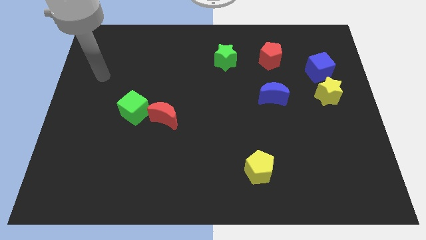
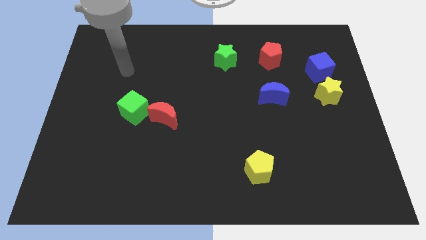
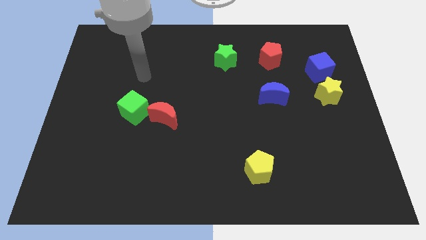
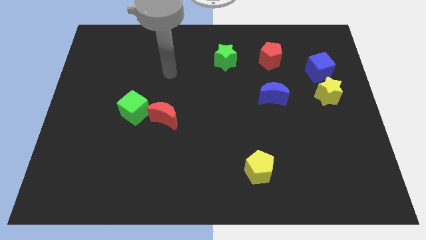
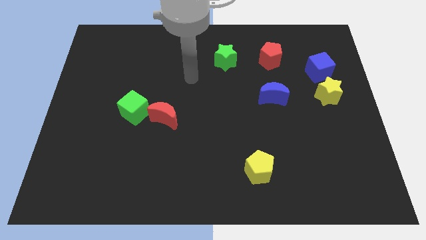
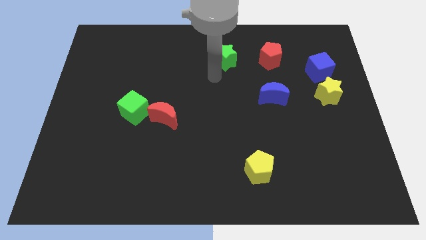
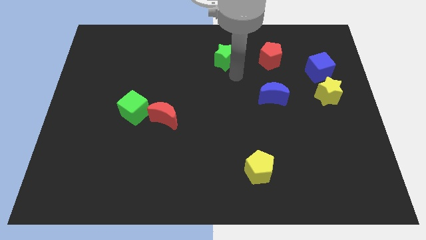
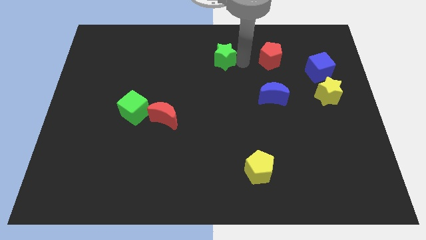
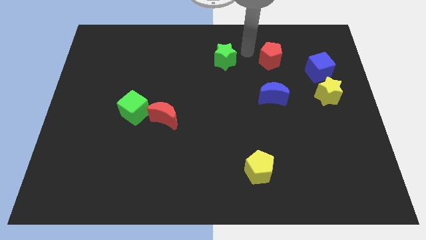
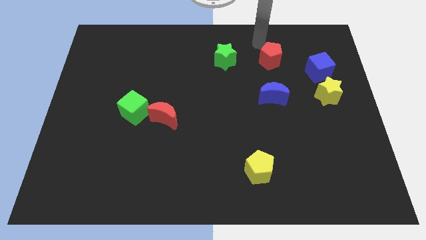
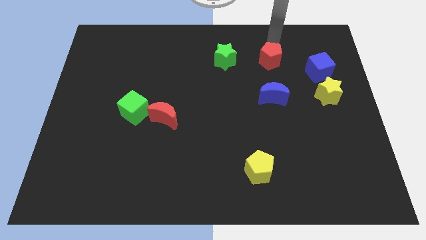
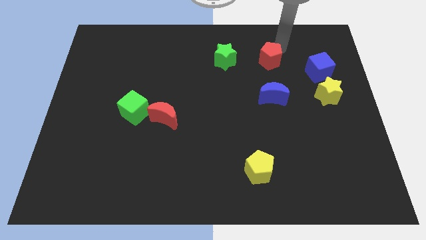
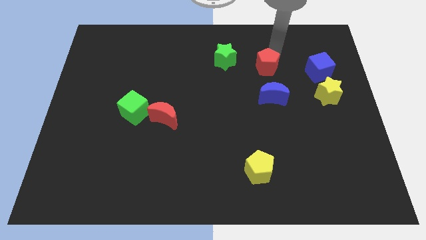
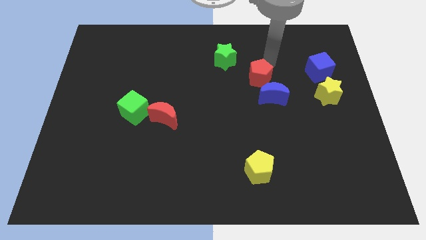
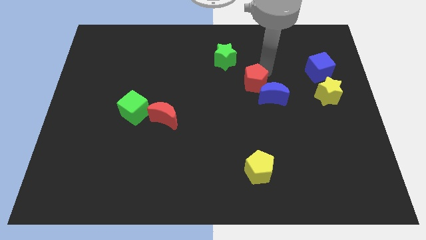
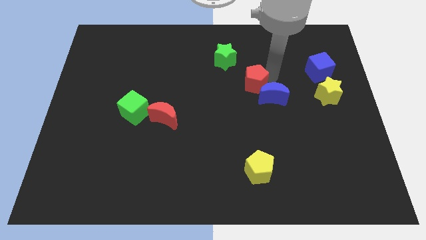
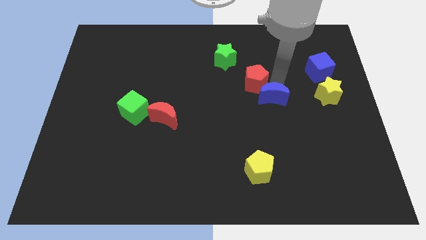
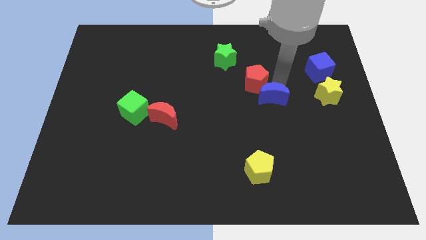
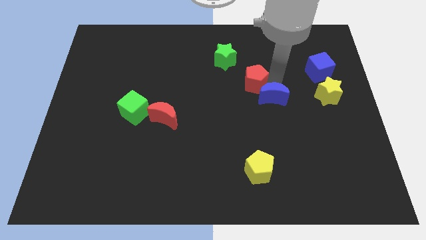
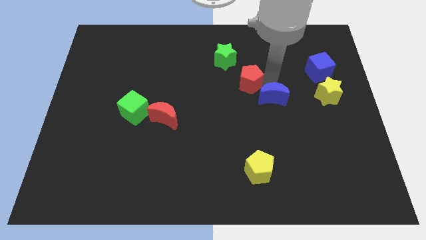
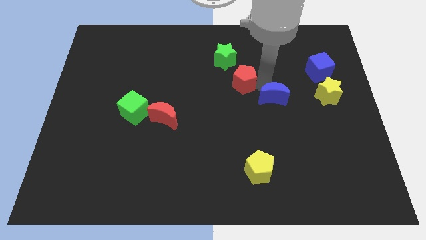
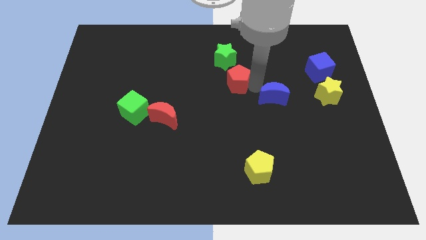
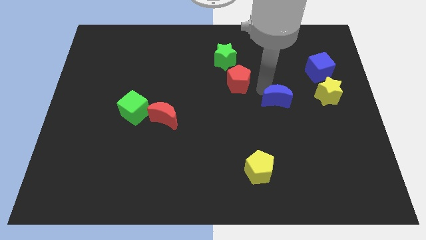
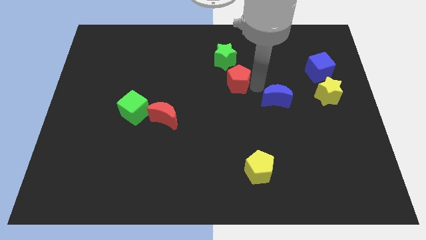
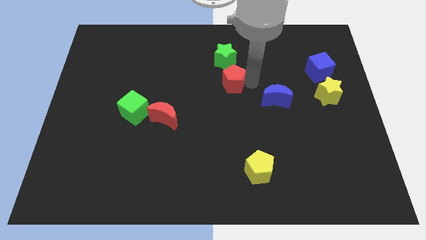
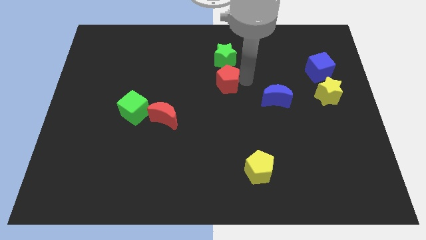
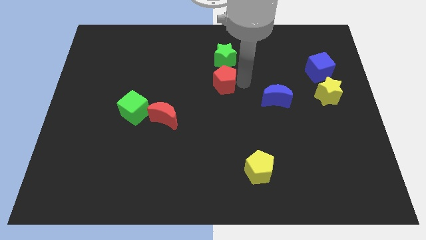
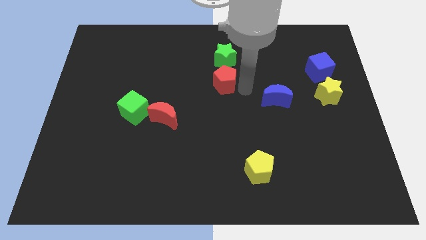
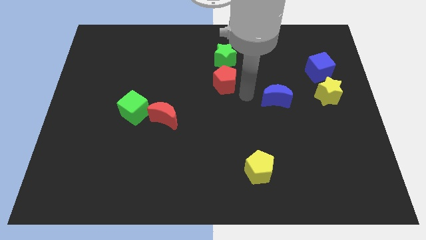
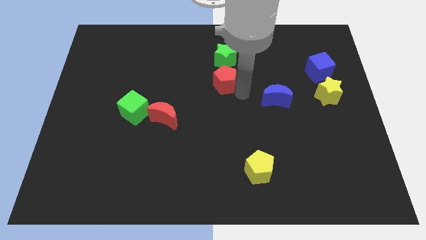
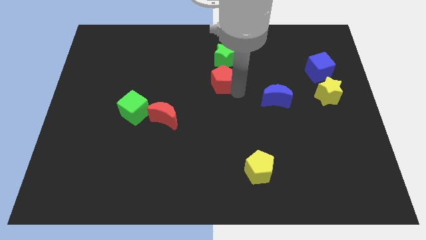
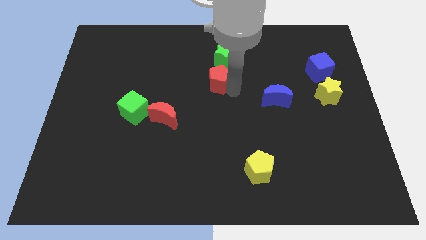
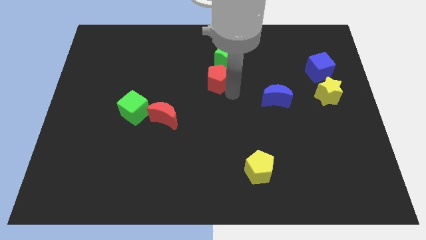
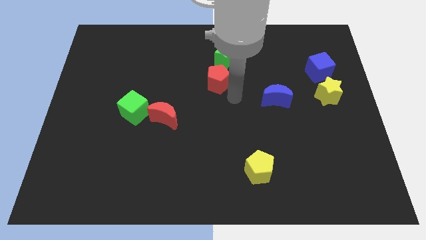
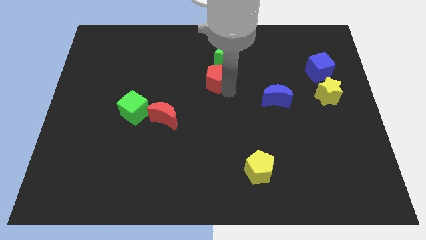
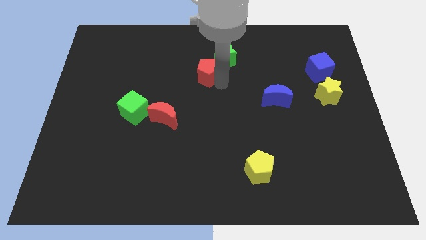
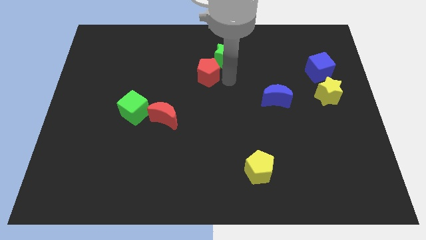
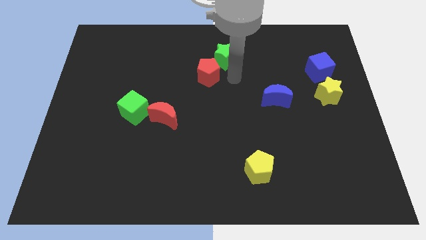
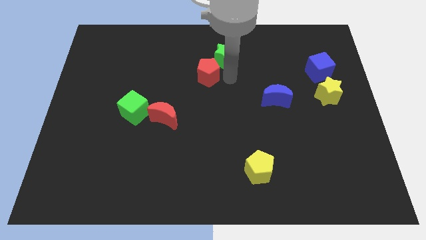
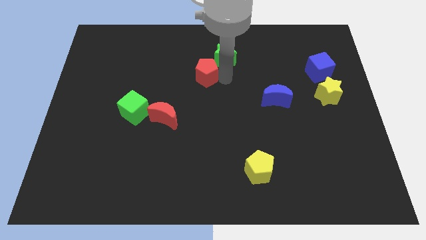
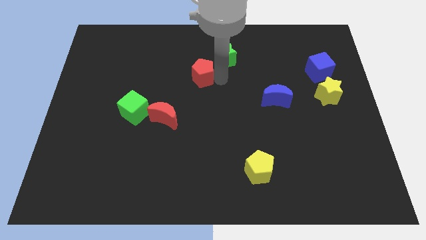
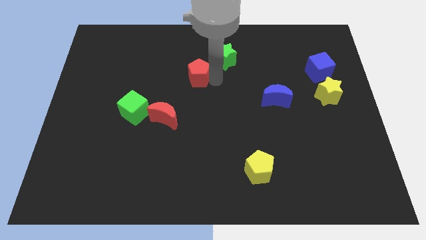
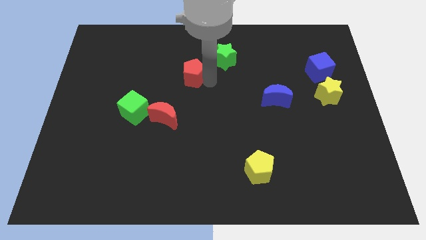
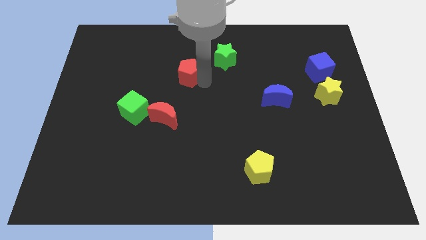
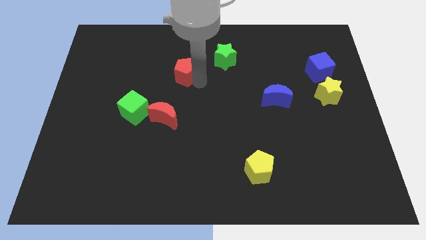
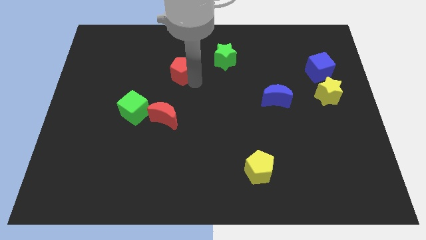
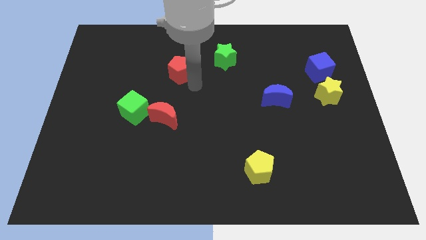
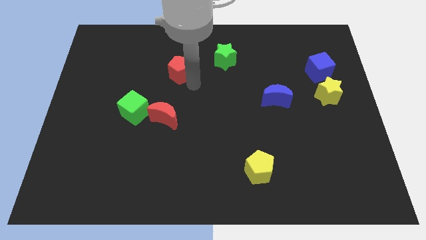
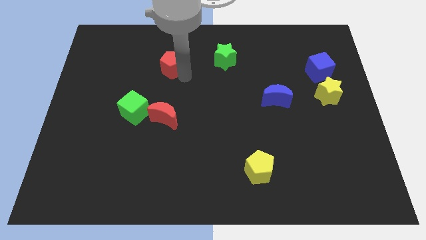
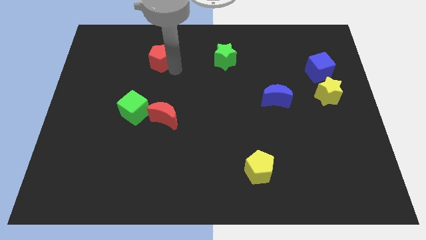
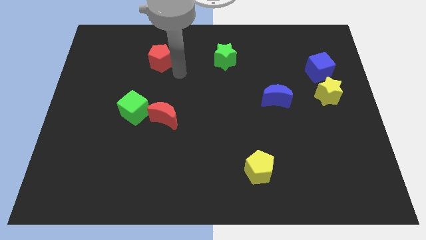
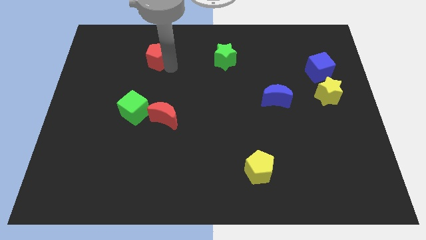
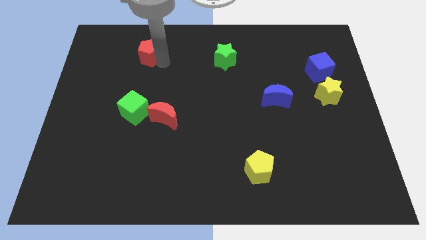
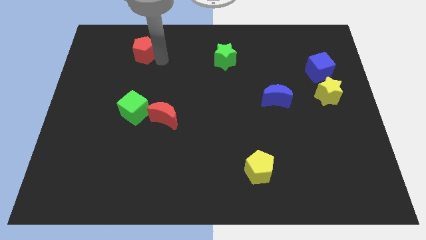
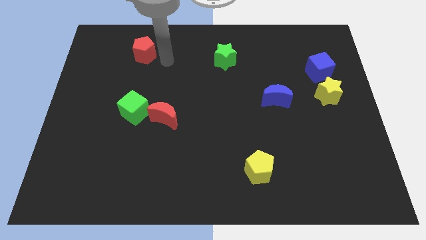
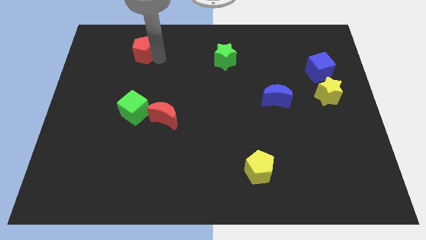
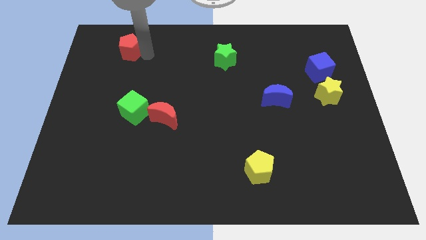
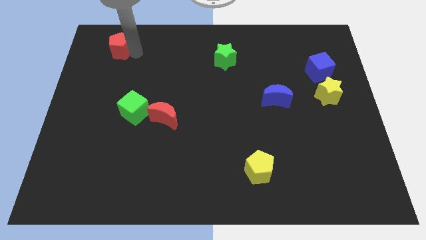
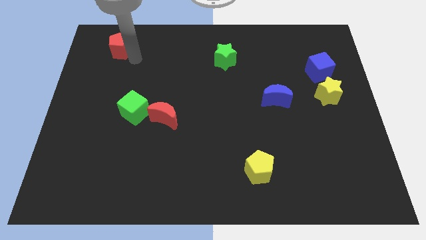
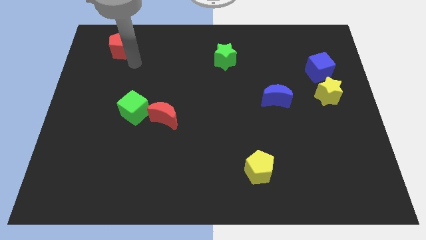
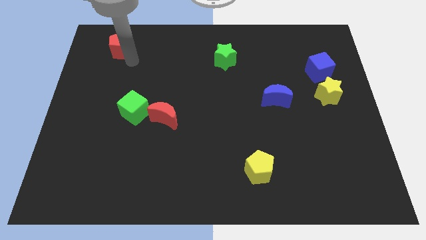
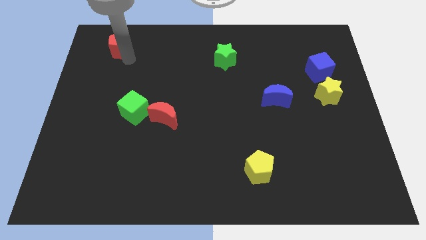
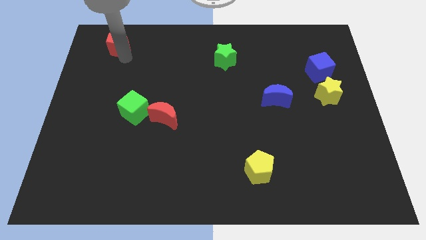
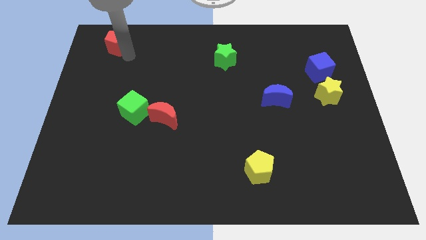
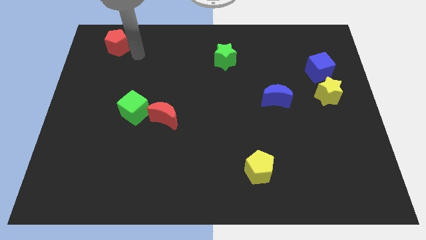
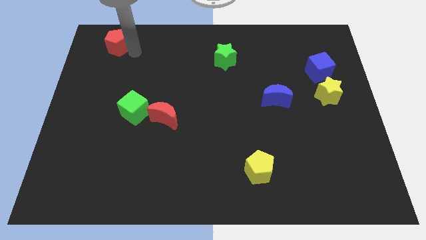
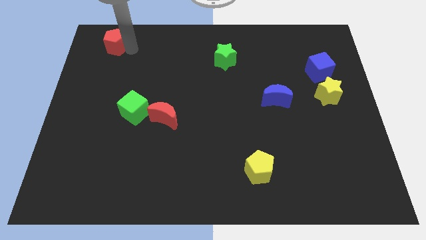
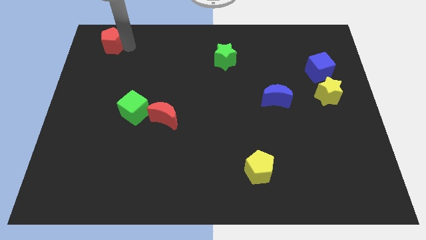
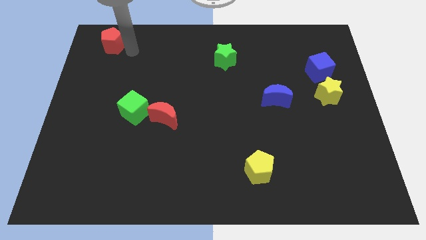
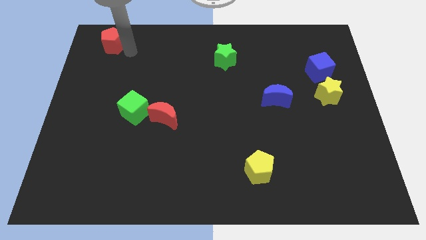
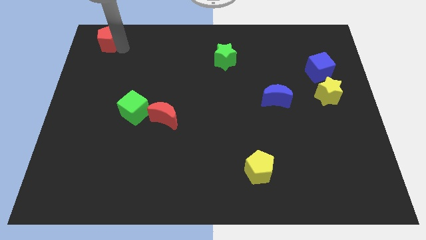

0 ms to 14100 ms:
slide the red pentagon to the top left of the board

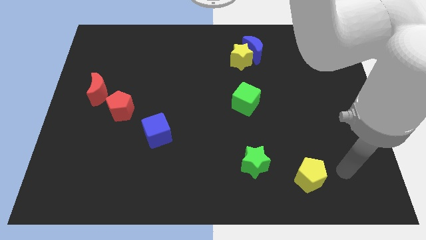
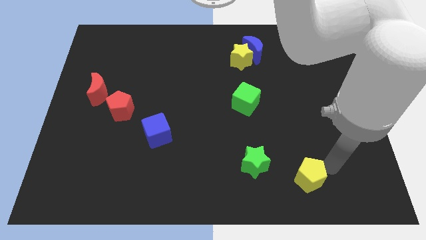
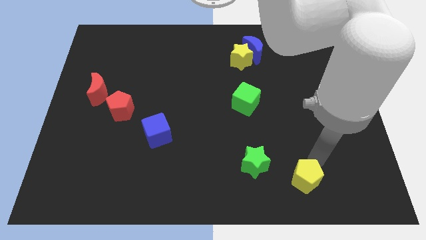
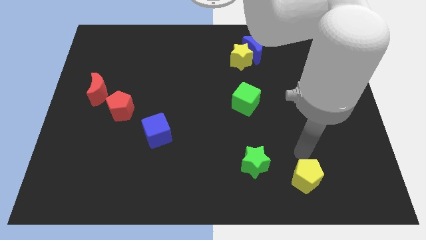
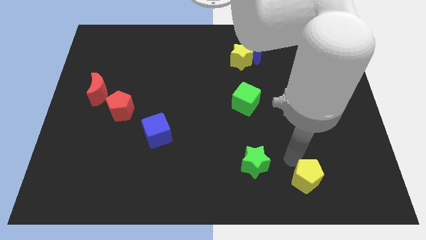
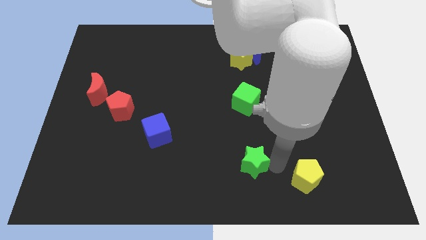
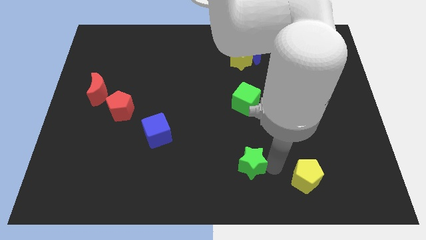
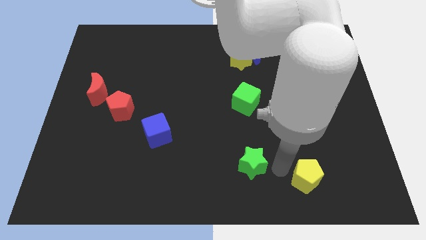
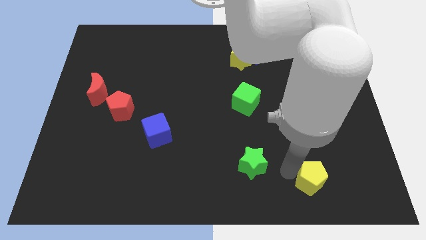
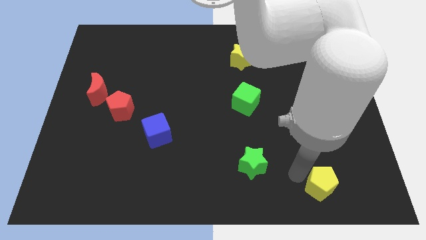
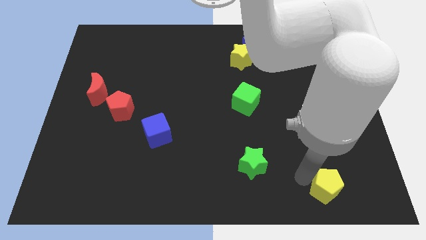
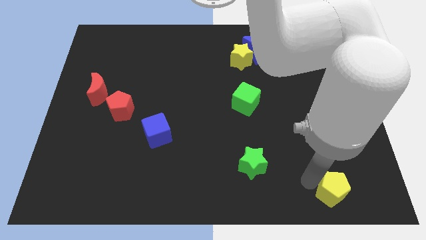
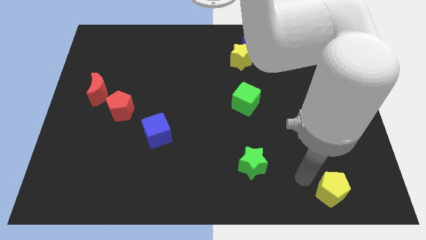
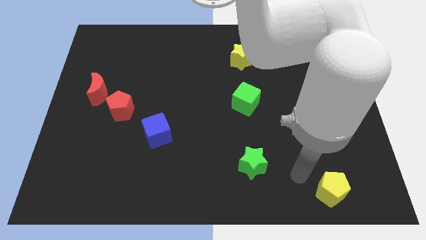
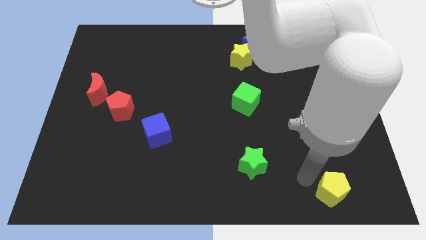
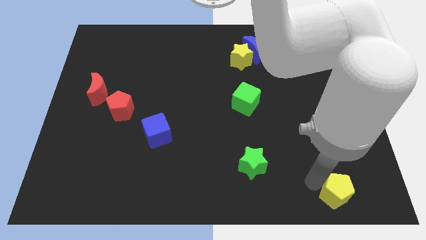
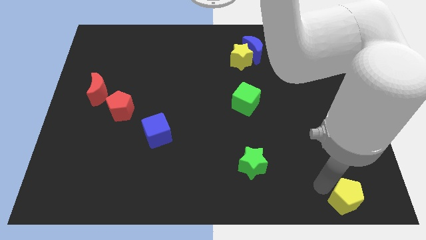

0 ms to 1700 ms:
push the yellow pentagon to the bottom right of the board
